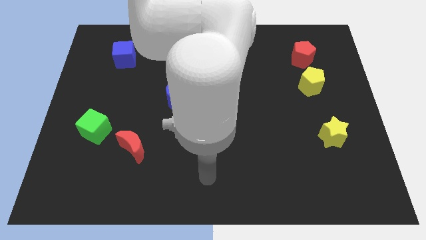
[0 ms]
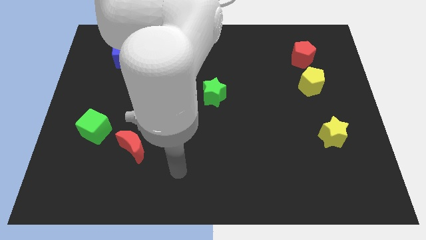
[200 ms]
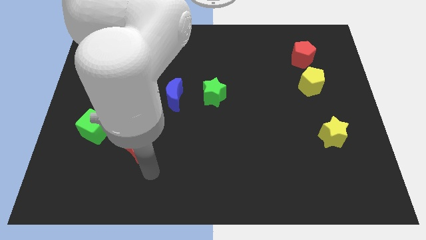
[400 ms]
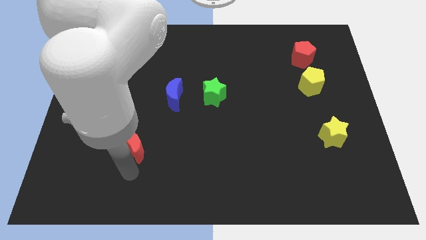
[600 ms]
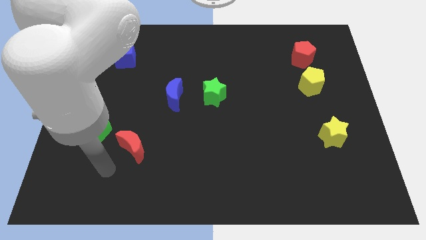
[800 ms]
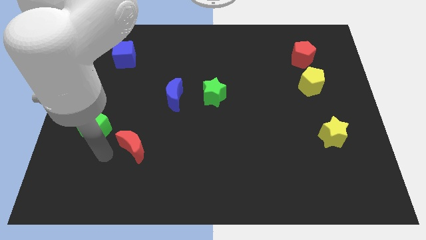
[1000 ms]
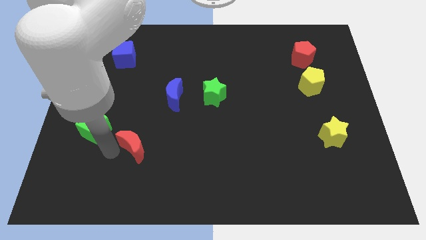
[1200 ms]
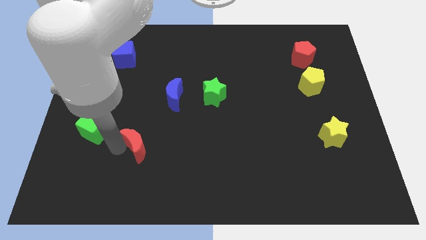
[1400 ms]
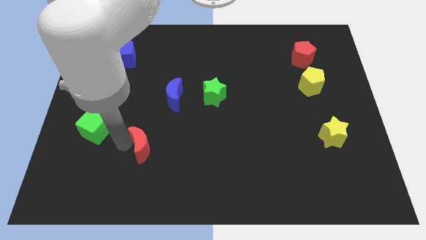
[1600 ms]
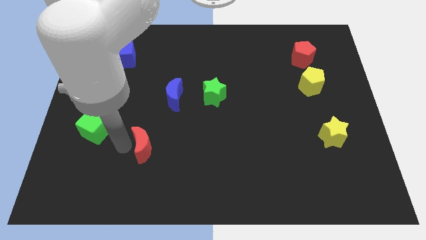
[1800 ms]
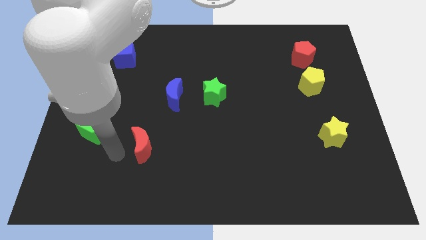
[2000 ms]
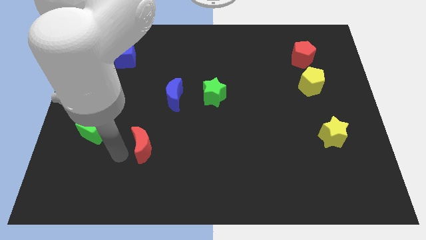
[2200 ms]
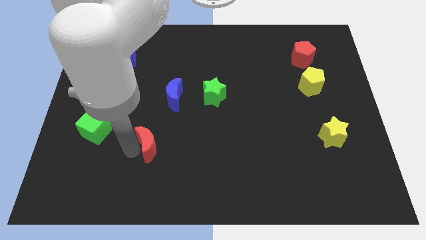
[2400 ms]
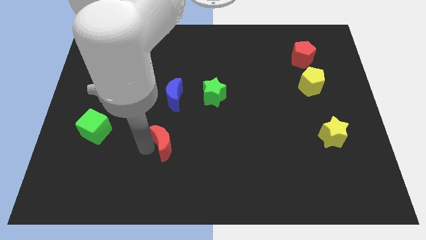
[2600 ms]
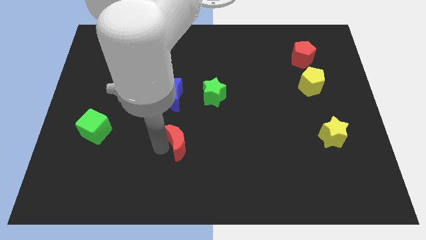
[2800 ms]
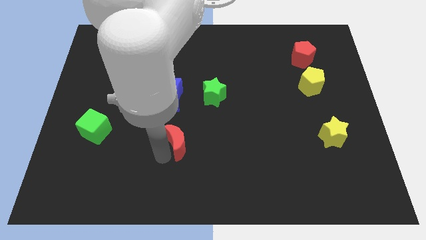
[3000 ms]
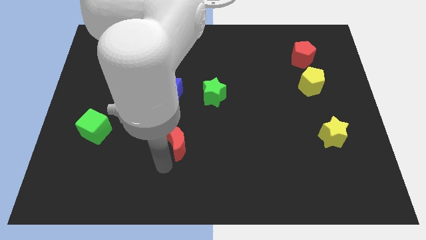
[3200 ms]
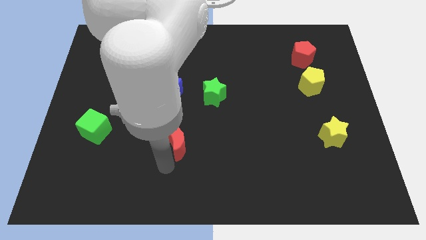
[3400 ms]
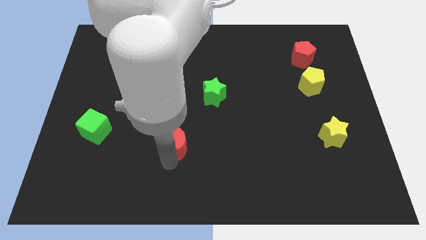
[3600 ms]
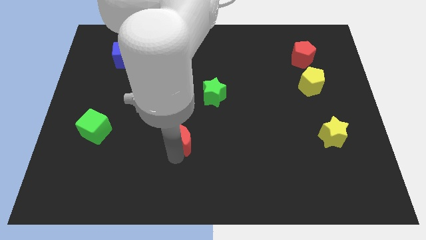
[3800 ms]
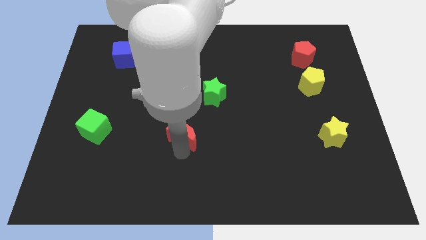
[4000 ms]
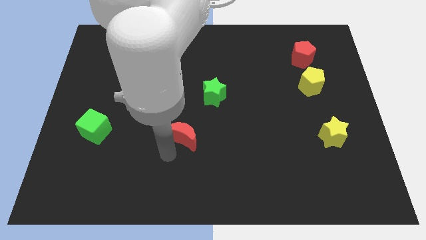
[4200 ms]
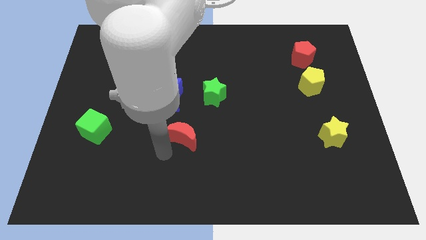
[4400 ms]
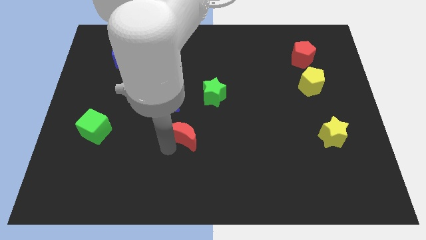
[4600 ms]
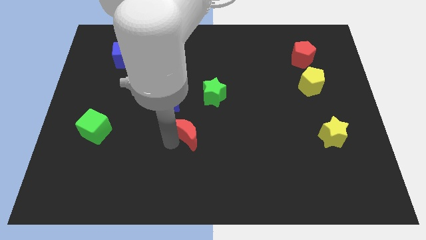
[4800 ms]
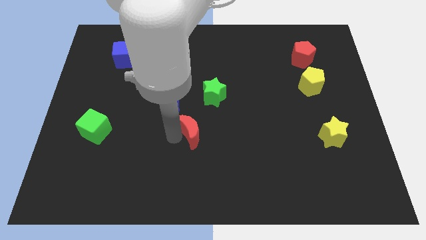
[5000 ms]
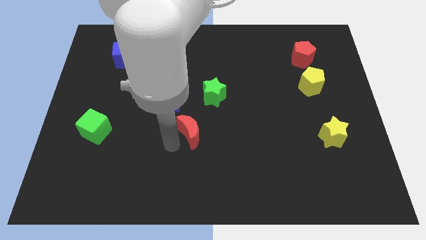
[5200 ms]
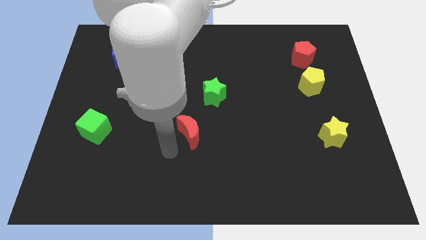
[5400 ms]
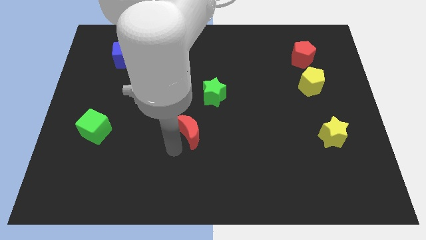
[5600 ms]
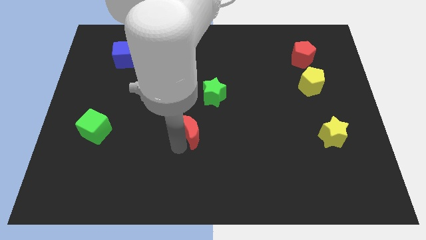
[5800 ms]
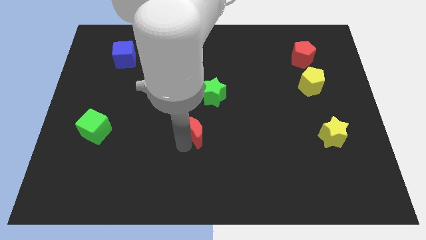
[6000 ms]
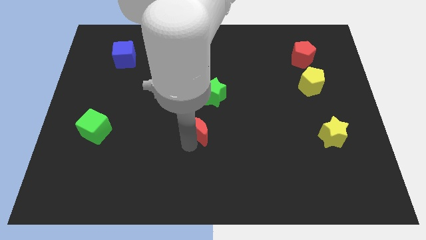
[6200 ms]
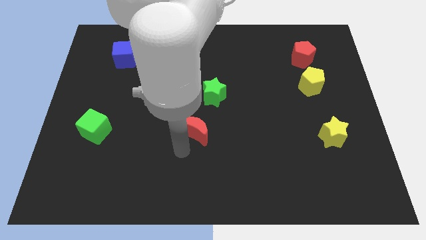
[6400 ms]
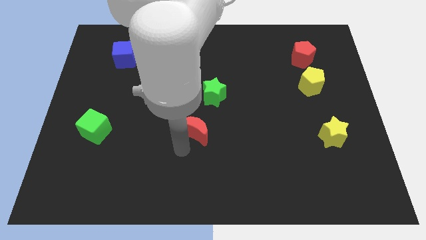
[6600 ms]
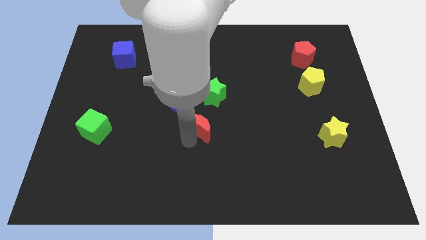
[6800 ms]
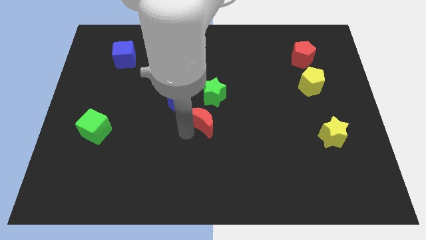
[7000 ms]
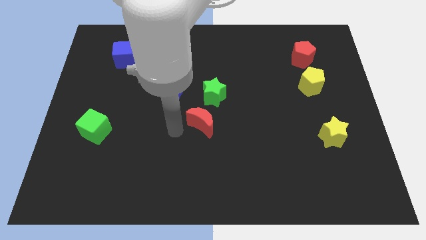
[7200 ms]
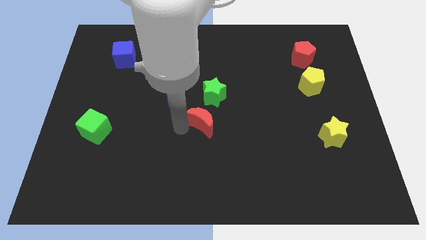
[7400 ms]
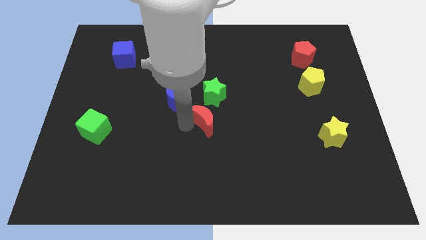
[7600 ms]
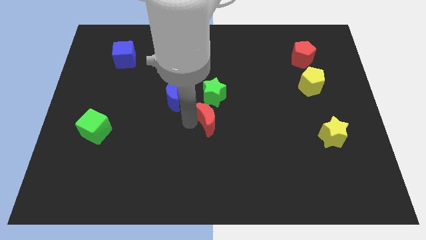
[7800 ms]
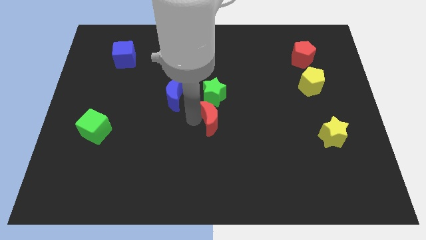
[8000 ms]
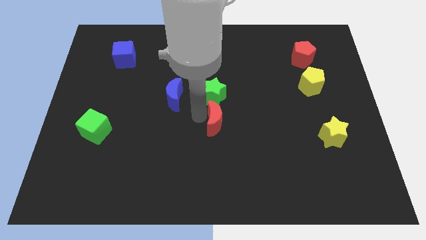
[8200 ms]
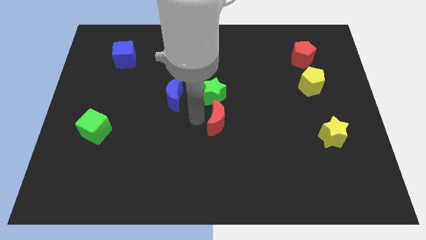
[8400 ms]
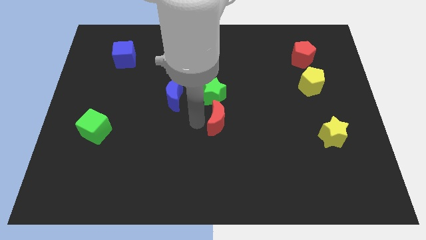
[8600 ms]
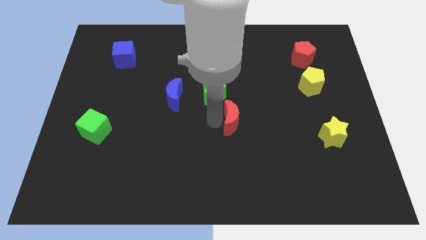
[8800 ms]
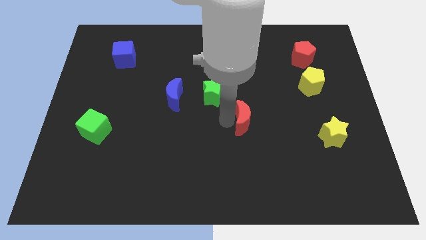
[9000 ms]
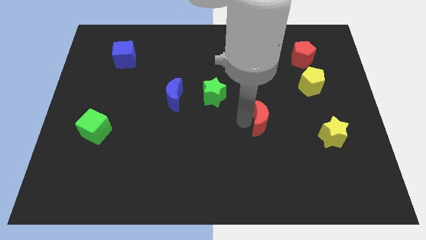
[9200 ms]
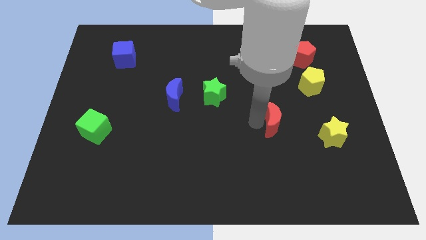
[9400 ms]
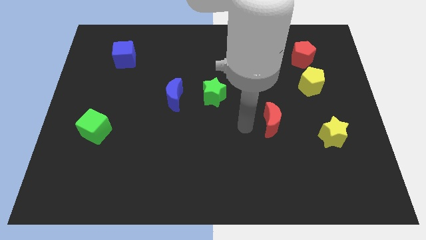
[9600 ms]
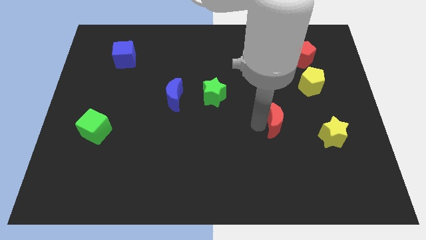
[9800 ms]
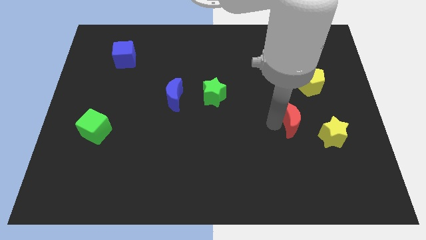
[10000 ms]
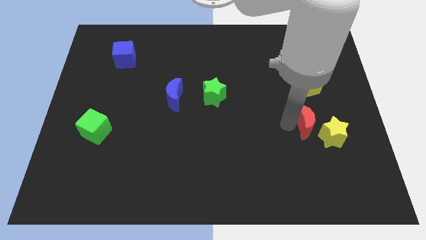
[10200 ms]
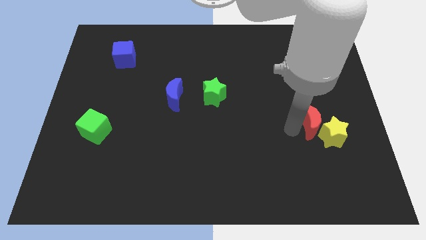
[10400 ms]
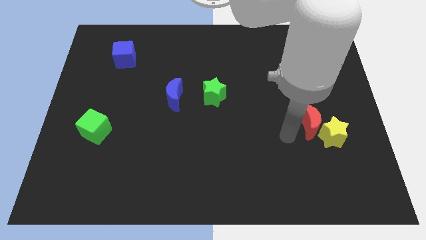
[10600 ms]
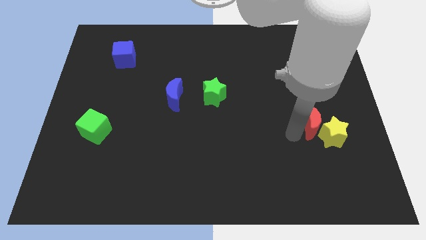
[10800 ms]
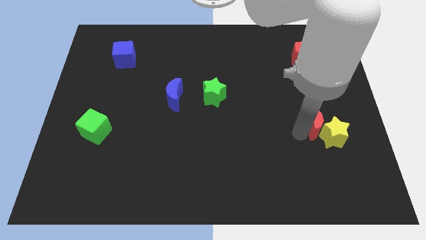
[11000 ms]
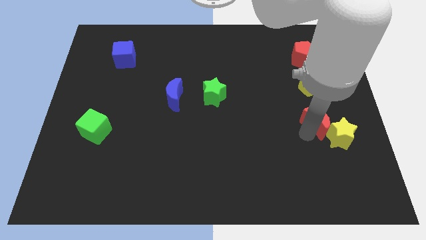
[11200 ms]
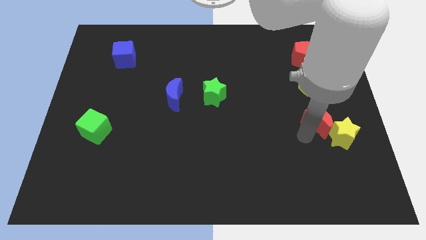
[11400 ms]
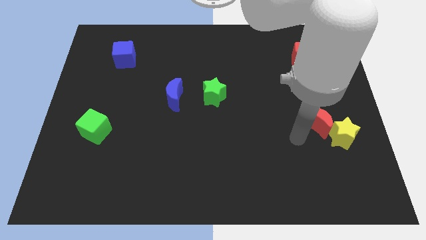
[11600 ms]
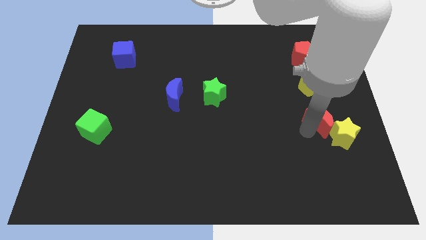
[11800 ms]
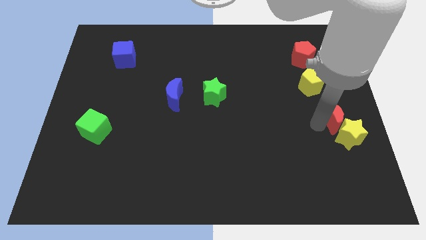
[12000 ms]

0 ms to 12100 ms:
slide the red moon to the right side

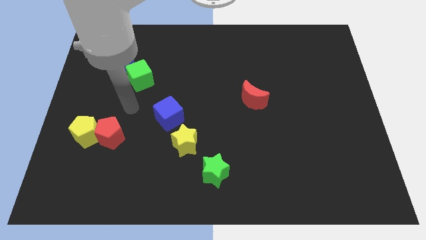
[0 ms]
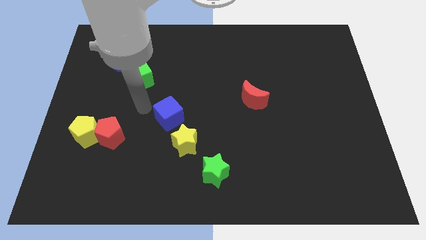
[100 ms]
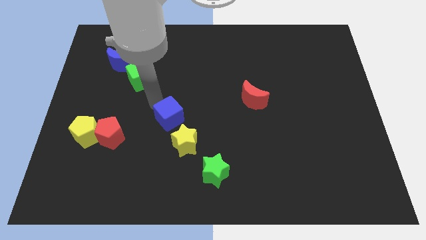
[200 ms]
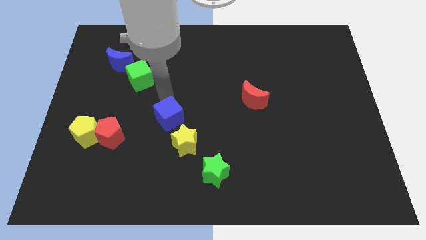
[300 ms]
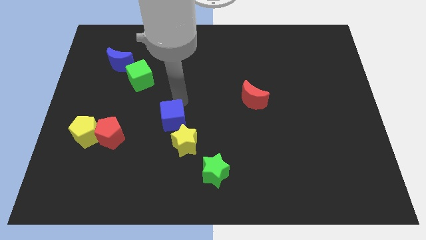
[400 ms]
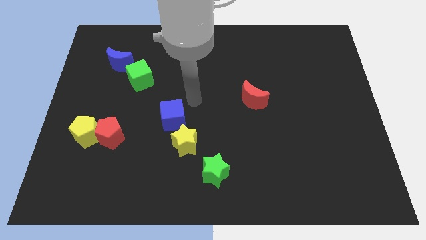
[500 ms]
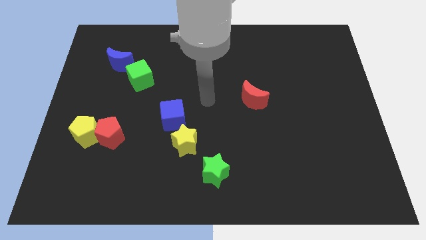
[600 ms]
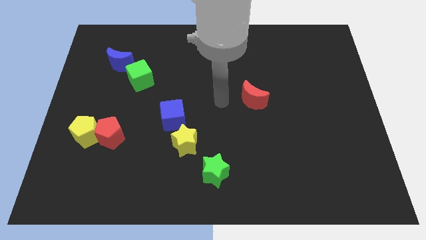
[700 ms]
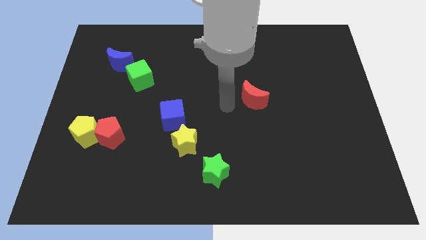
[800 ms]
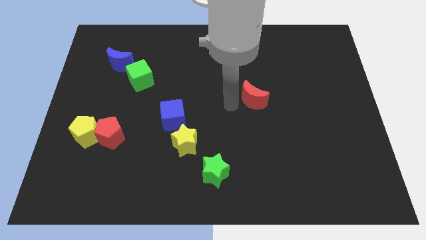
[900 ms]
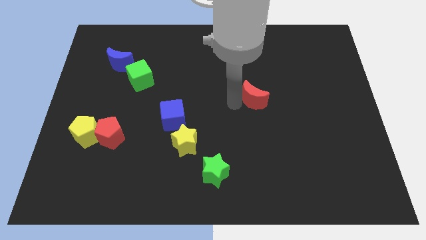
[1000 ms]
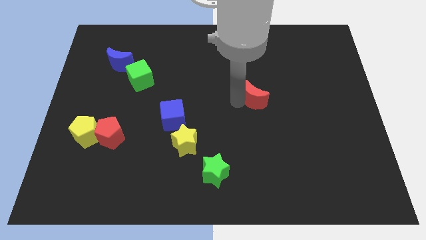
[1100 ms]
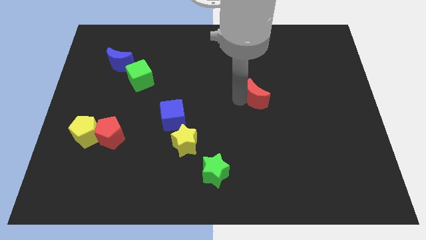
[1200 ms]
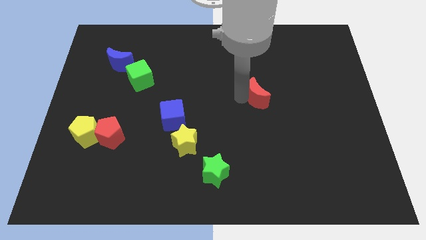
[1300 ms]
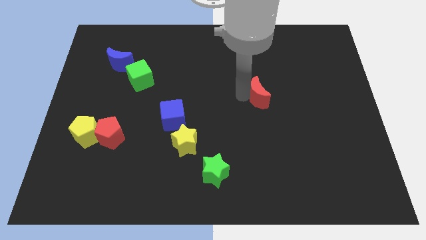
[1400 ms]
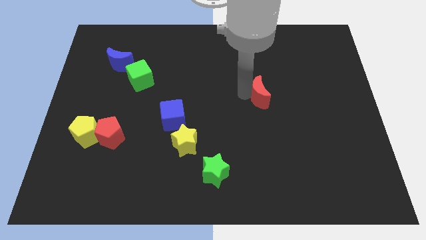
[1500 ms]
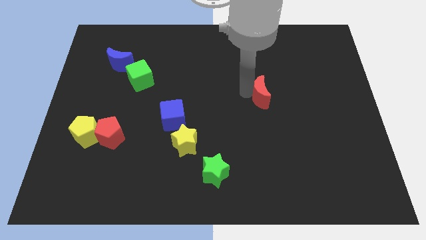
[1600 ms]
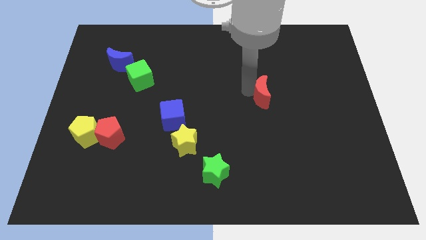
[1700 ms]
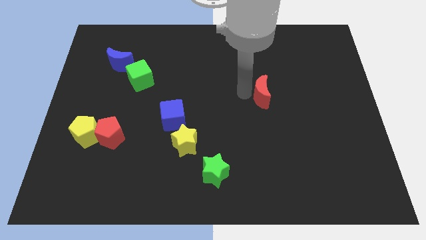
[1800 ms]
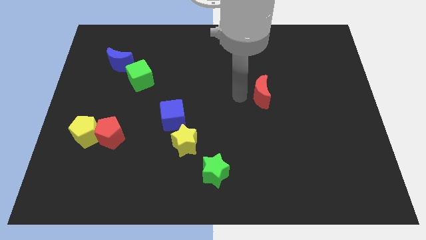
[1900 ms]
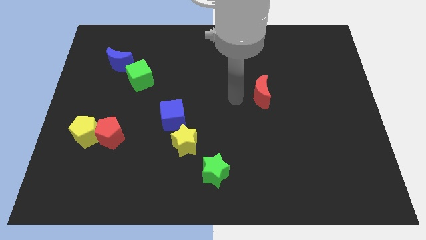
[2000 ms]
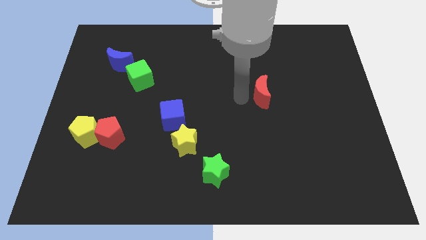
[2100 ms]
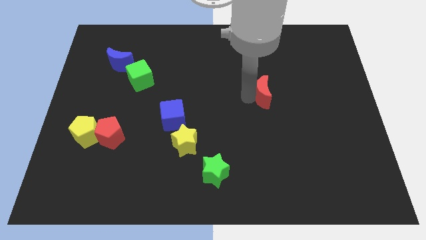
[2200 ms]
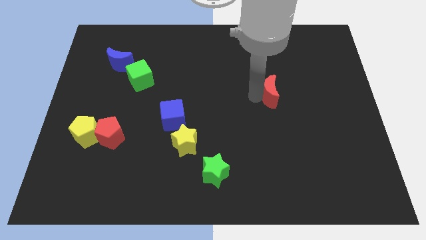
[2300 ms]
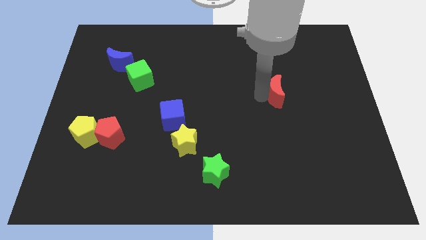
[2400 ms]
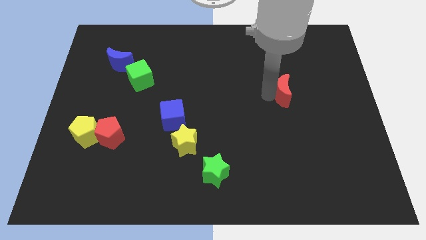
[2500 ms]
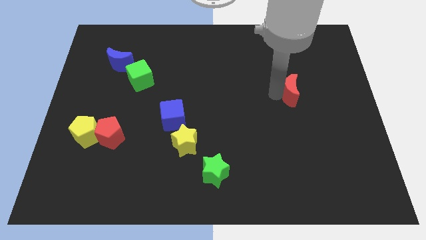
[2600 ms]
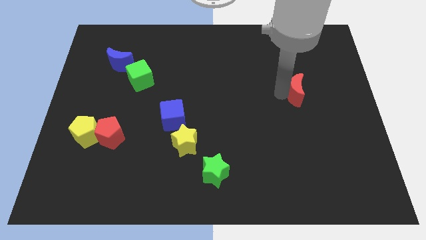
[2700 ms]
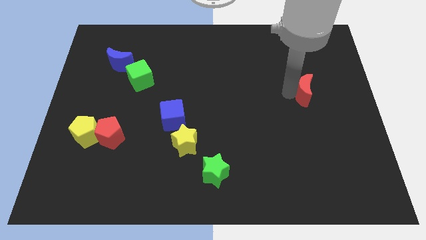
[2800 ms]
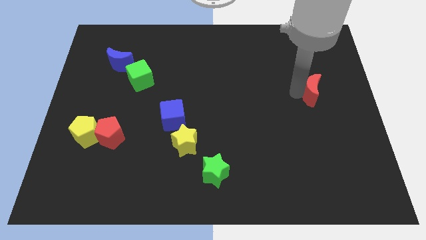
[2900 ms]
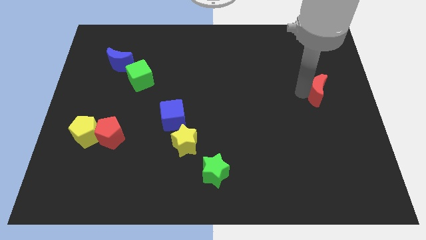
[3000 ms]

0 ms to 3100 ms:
push the red moon to the right side of the board
